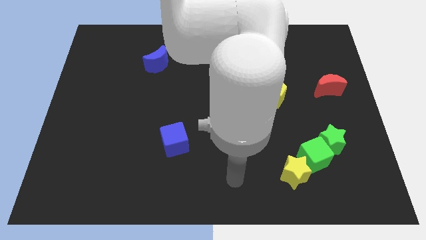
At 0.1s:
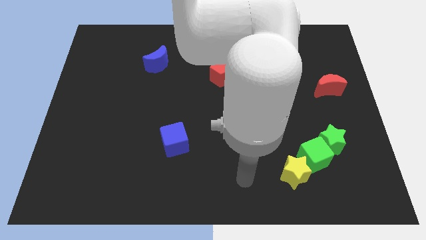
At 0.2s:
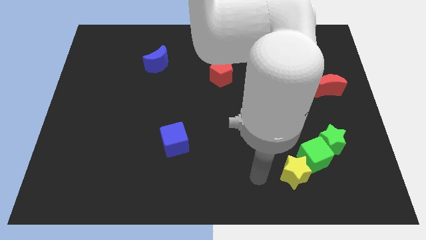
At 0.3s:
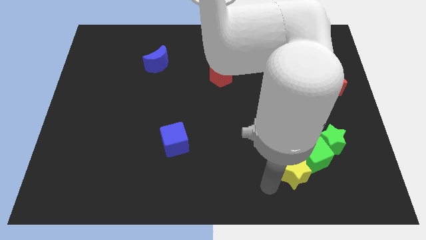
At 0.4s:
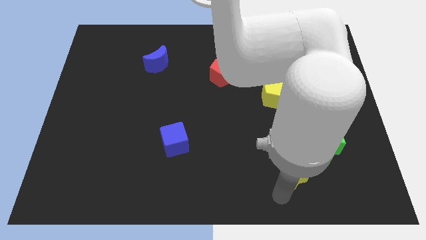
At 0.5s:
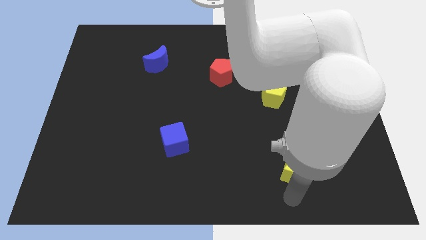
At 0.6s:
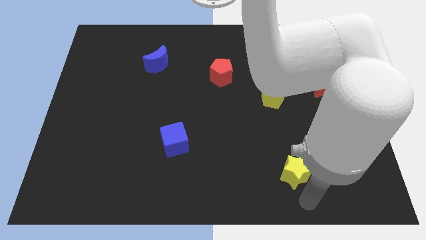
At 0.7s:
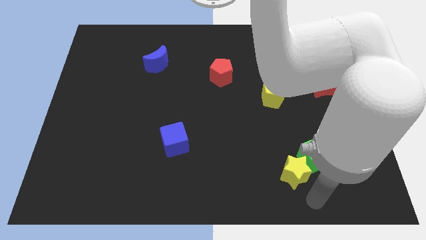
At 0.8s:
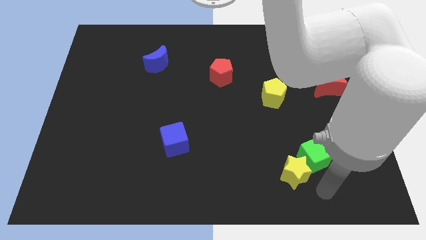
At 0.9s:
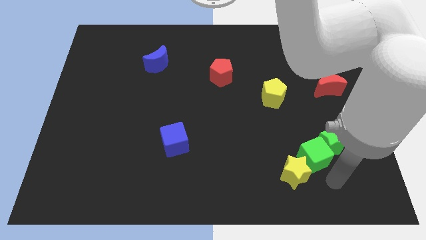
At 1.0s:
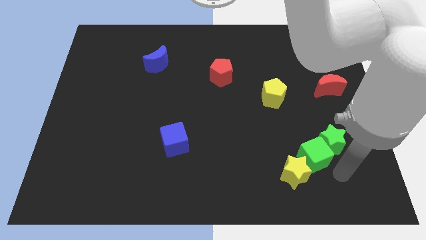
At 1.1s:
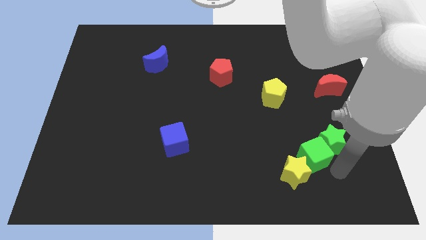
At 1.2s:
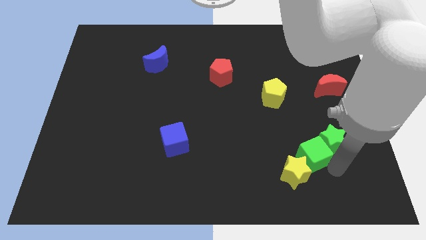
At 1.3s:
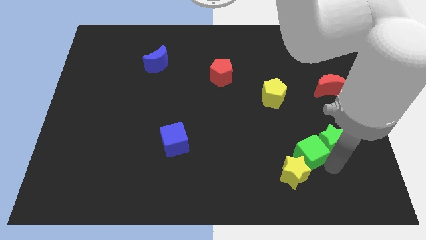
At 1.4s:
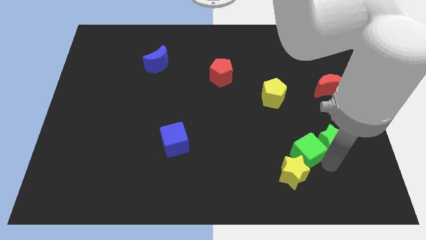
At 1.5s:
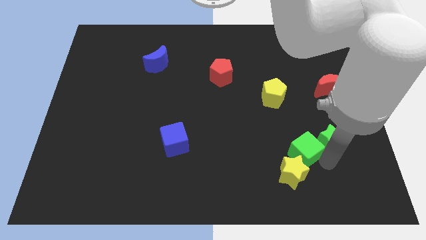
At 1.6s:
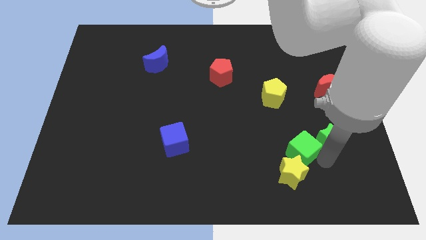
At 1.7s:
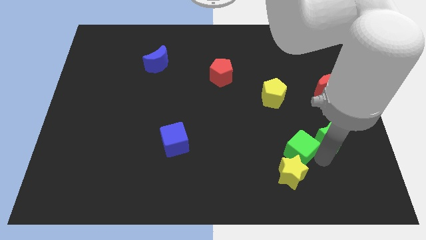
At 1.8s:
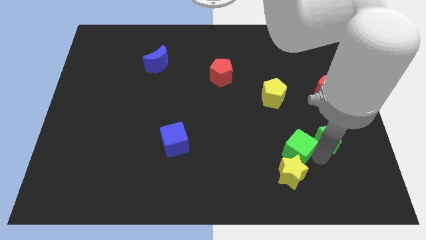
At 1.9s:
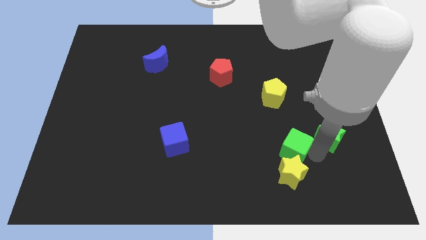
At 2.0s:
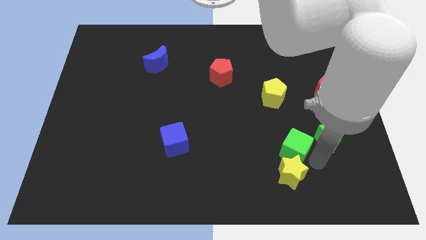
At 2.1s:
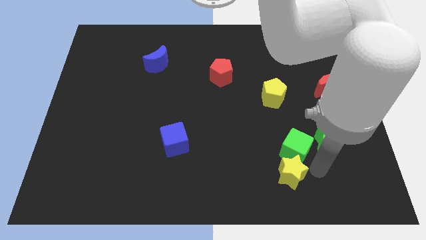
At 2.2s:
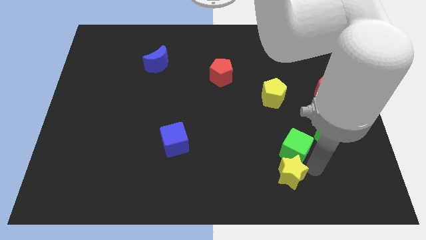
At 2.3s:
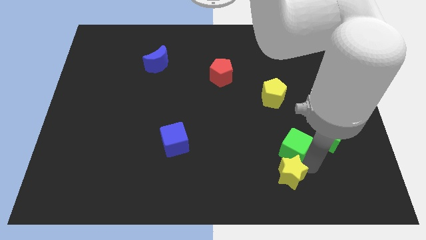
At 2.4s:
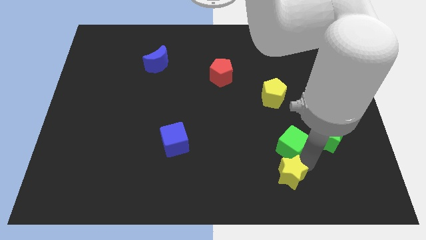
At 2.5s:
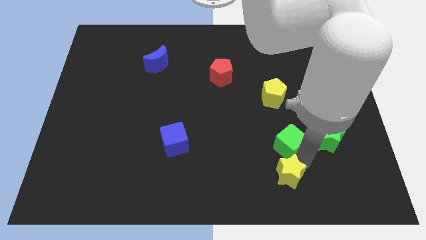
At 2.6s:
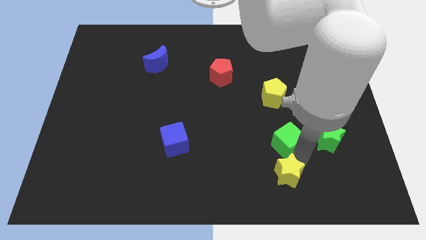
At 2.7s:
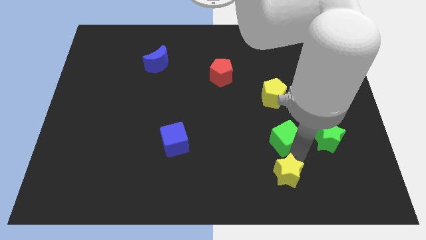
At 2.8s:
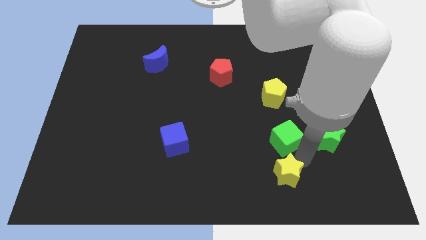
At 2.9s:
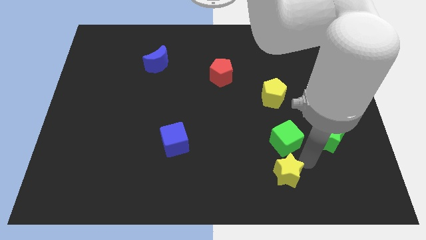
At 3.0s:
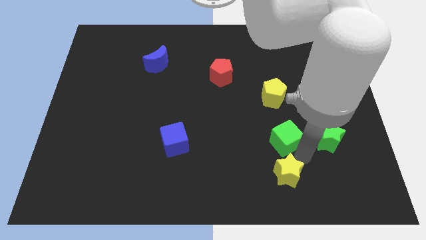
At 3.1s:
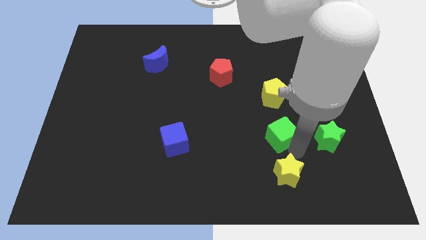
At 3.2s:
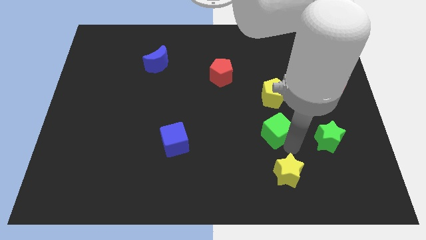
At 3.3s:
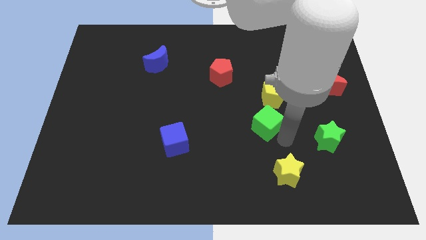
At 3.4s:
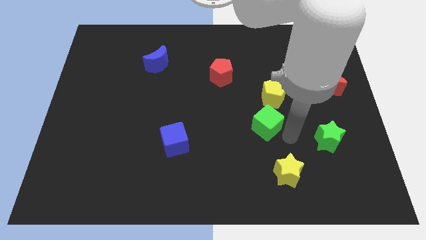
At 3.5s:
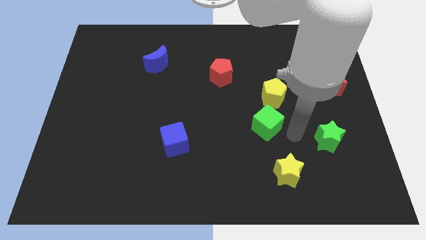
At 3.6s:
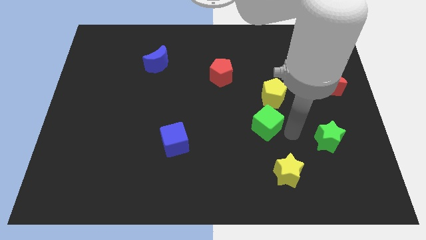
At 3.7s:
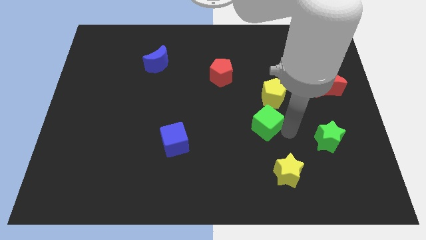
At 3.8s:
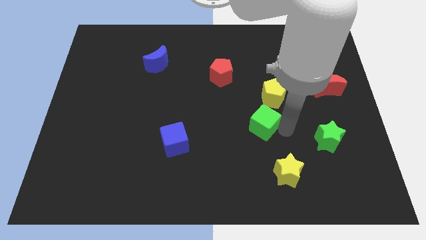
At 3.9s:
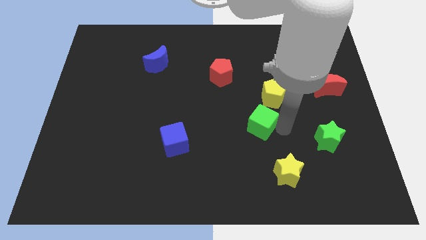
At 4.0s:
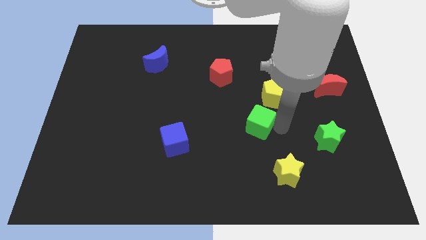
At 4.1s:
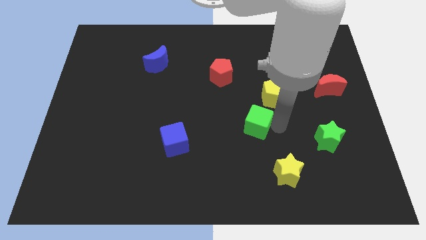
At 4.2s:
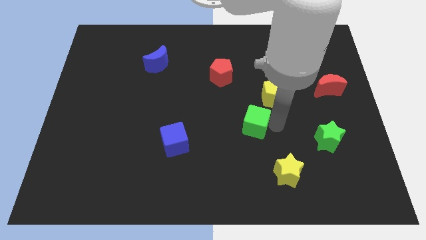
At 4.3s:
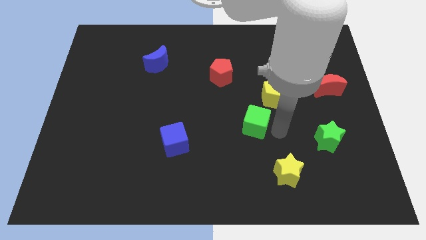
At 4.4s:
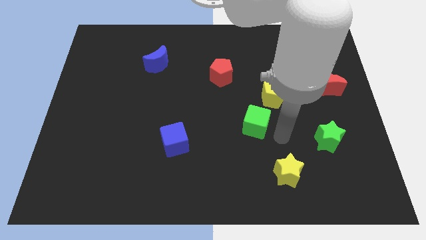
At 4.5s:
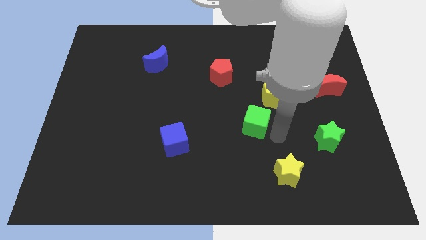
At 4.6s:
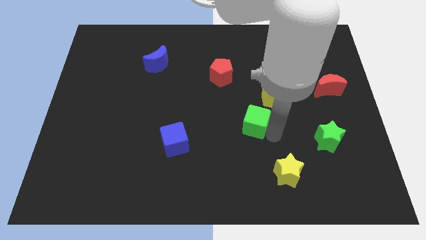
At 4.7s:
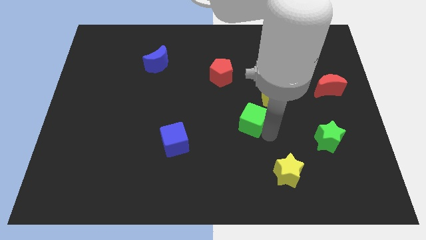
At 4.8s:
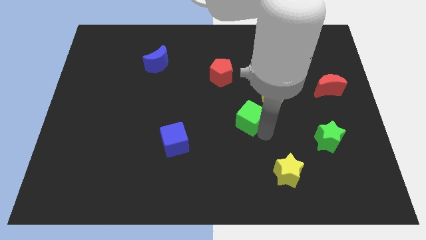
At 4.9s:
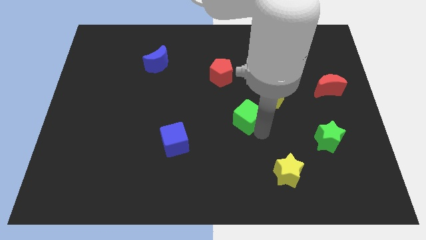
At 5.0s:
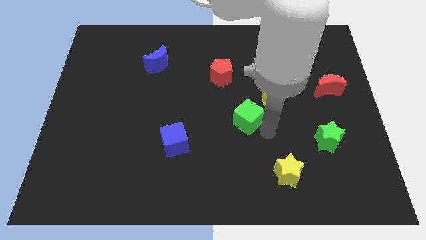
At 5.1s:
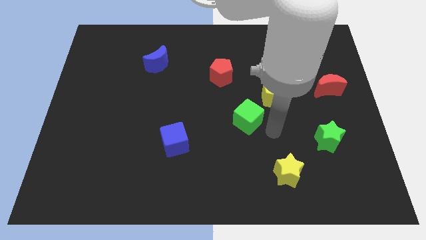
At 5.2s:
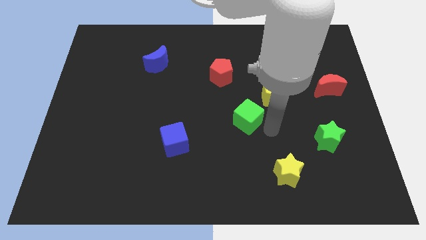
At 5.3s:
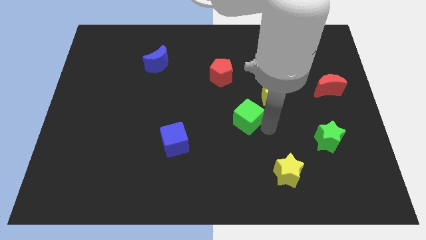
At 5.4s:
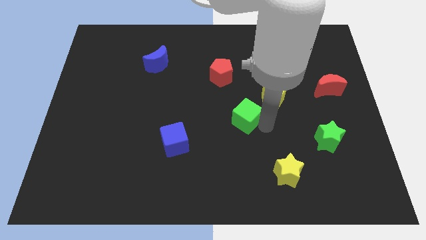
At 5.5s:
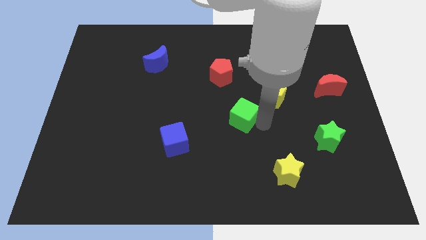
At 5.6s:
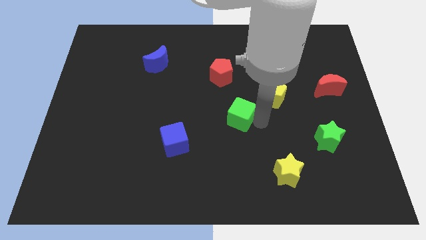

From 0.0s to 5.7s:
slide the green cube below the red pentagon

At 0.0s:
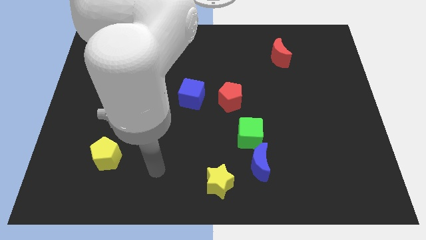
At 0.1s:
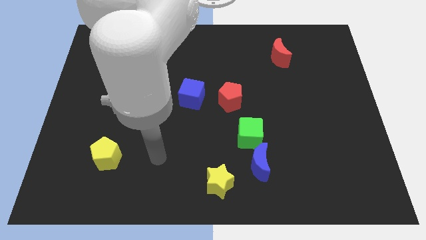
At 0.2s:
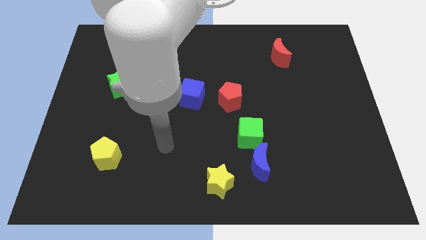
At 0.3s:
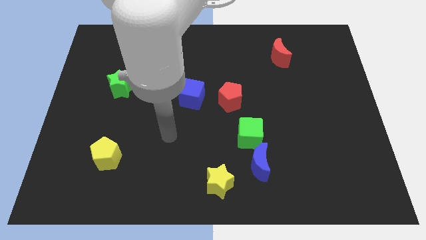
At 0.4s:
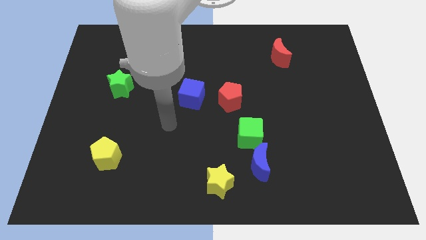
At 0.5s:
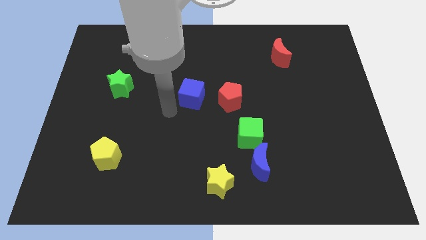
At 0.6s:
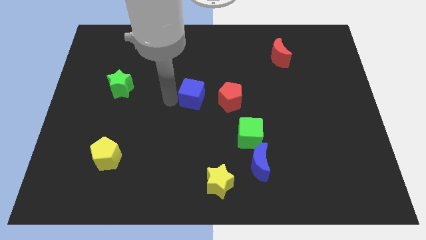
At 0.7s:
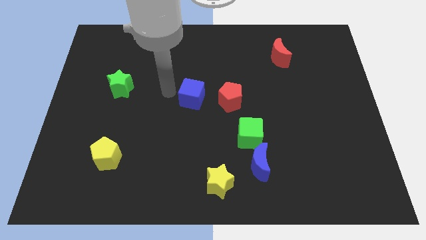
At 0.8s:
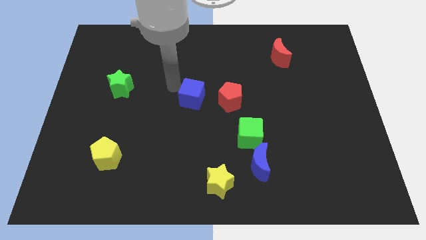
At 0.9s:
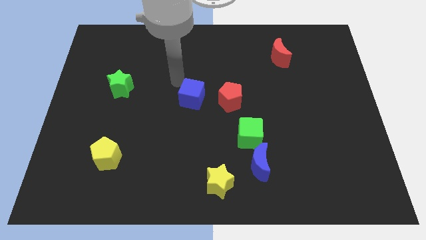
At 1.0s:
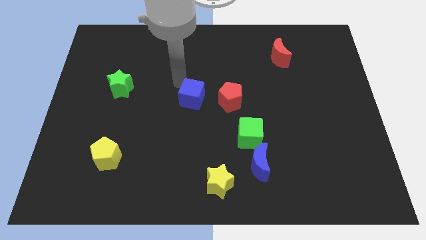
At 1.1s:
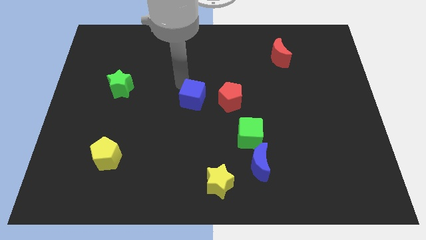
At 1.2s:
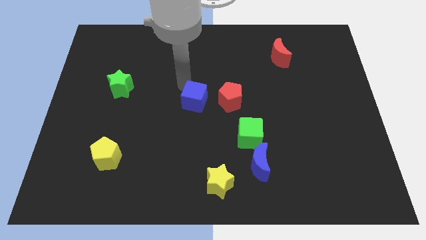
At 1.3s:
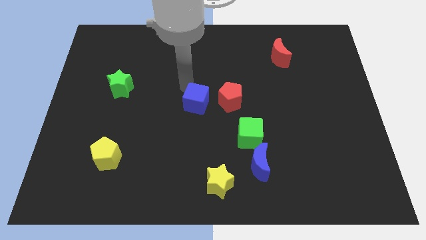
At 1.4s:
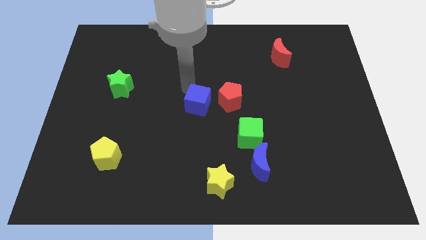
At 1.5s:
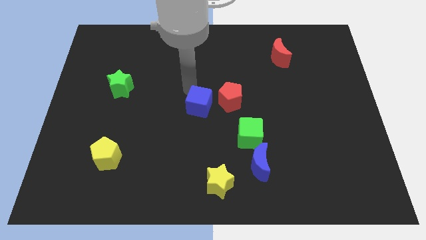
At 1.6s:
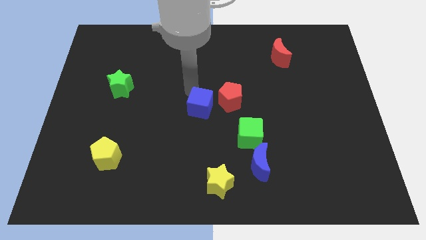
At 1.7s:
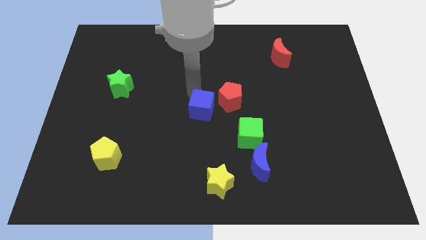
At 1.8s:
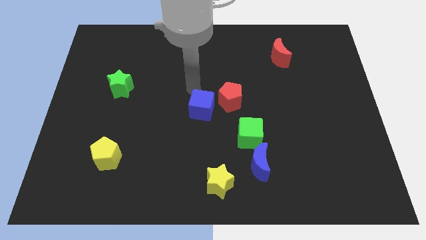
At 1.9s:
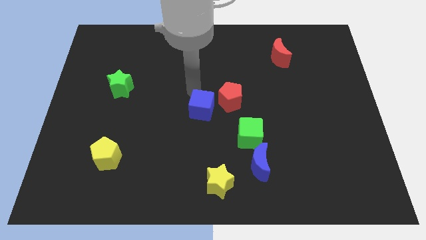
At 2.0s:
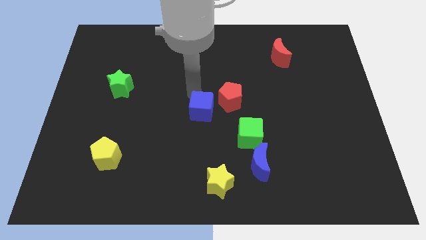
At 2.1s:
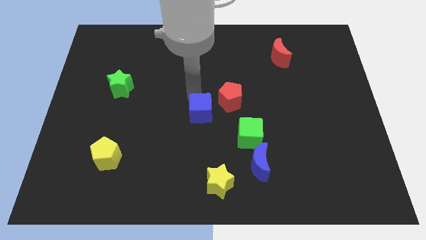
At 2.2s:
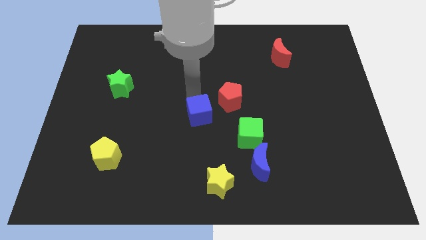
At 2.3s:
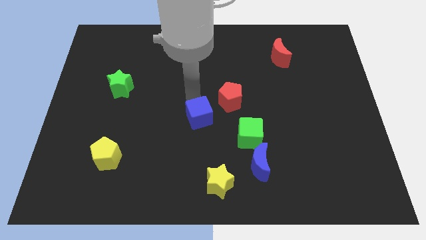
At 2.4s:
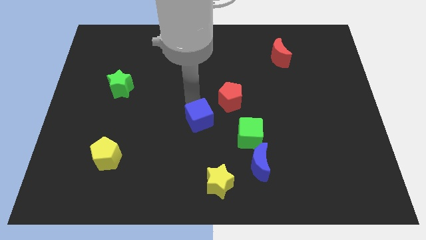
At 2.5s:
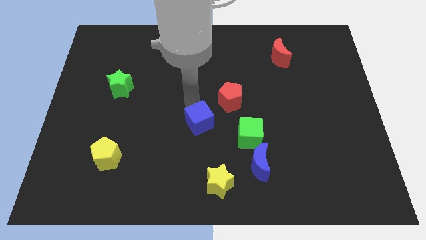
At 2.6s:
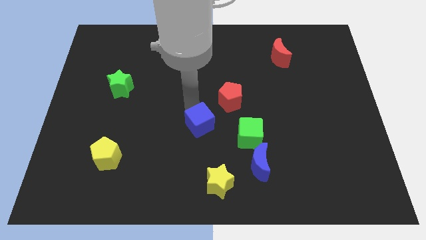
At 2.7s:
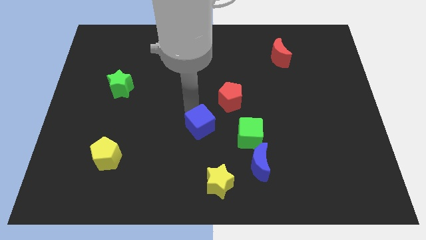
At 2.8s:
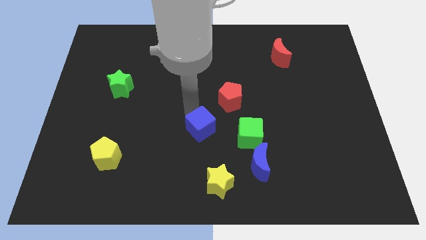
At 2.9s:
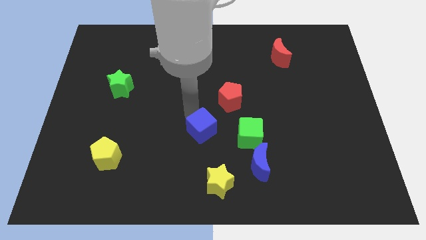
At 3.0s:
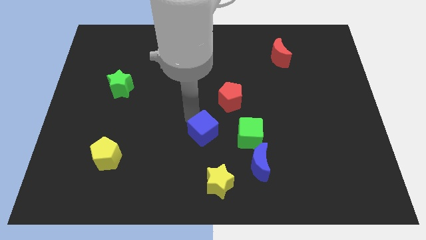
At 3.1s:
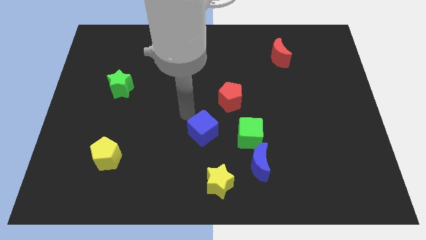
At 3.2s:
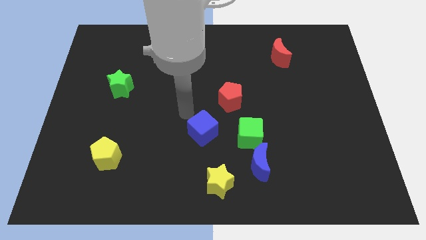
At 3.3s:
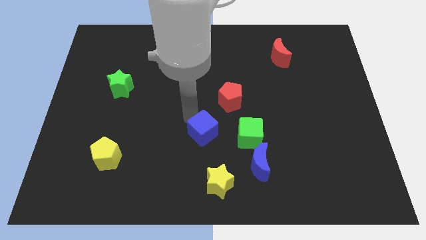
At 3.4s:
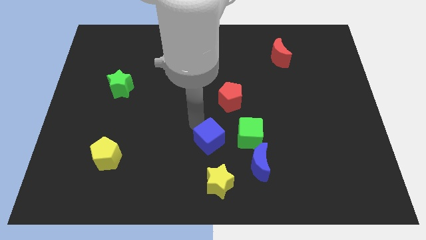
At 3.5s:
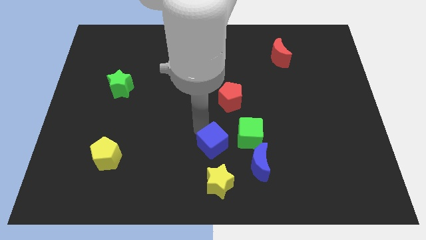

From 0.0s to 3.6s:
slide the blue cube to the bottom left of the green cube
